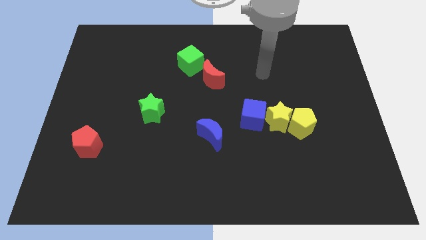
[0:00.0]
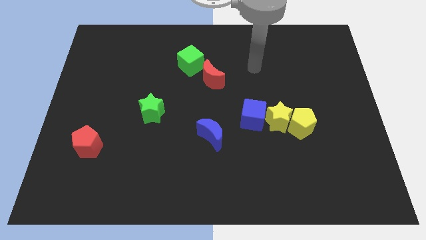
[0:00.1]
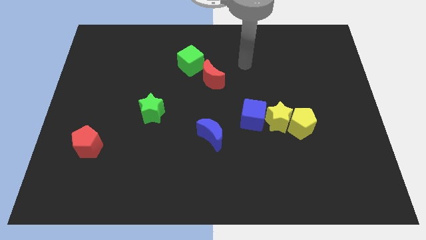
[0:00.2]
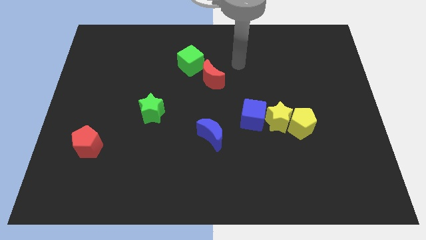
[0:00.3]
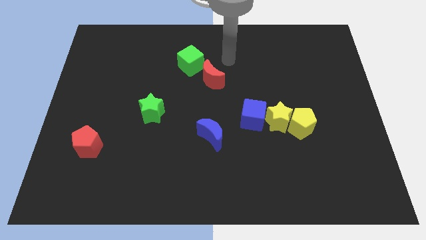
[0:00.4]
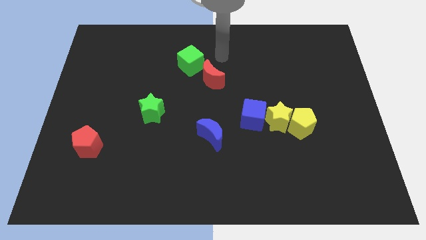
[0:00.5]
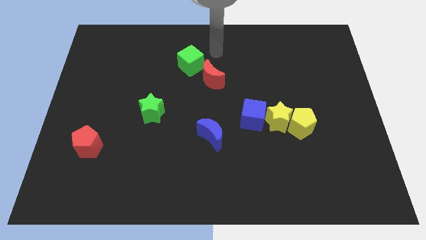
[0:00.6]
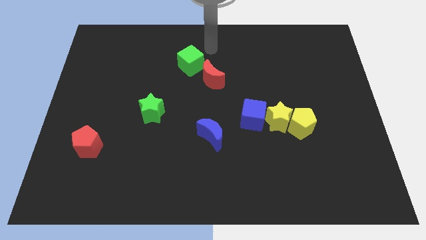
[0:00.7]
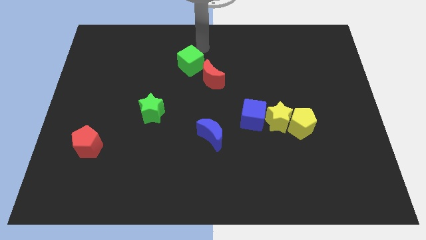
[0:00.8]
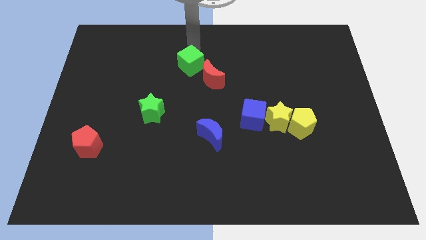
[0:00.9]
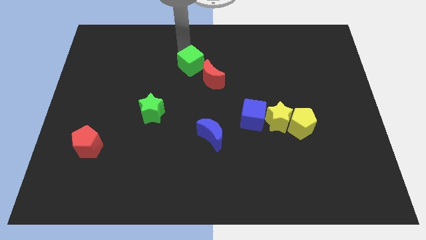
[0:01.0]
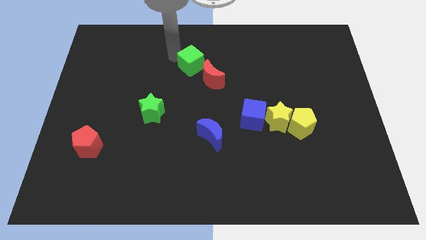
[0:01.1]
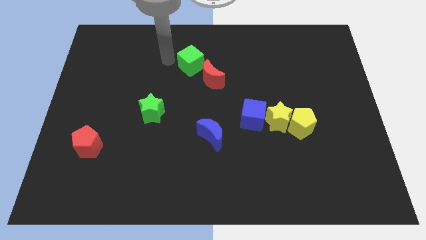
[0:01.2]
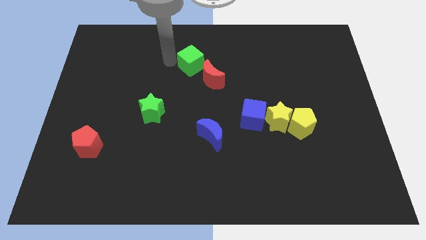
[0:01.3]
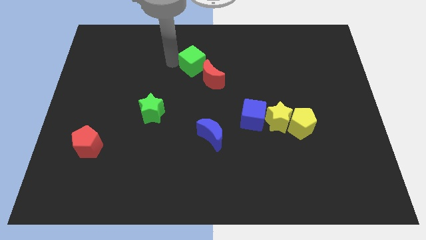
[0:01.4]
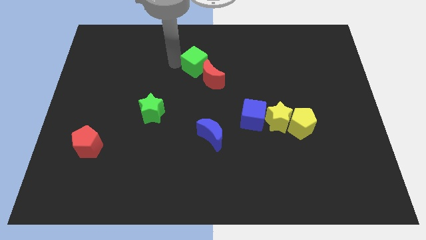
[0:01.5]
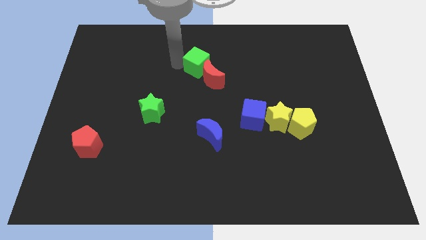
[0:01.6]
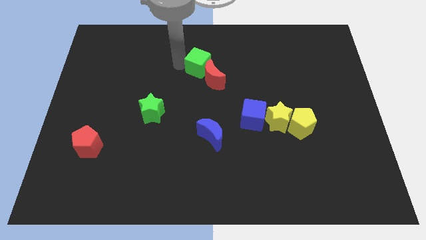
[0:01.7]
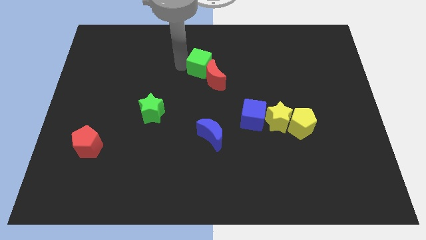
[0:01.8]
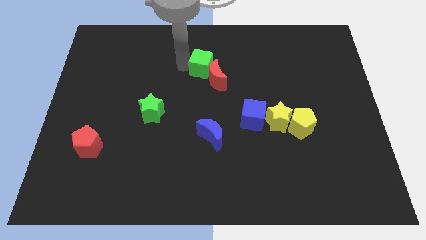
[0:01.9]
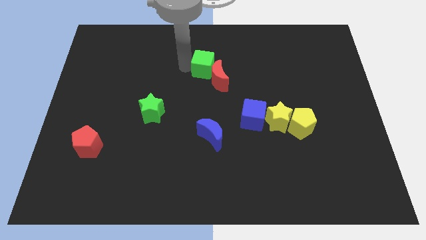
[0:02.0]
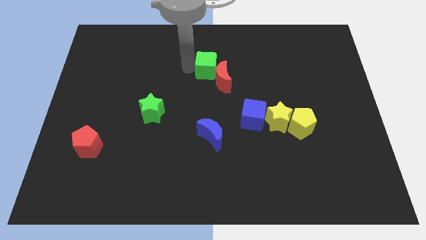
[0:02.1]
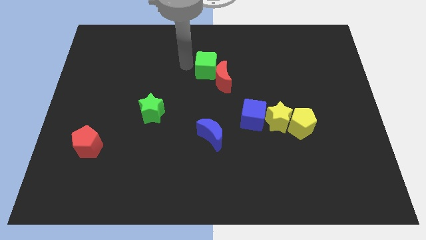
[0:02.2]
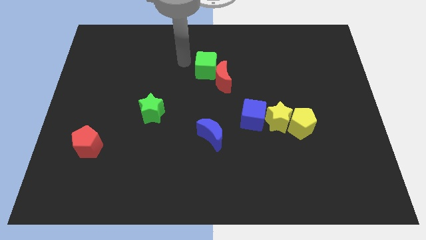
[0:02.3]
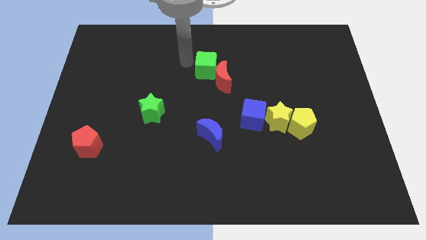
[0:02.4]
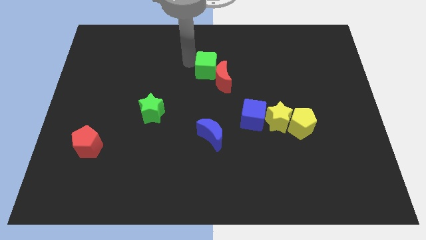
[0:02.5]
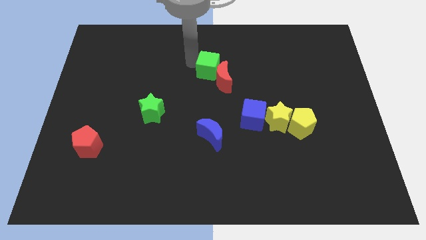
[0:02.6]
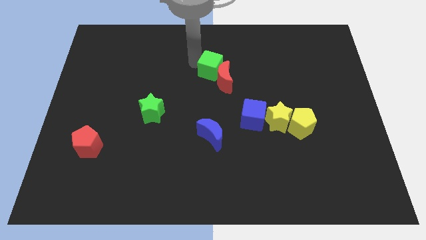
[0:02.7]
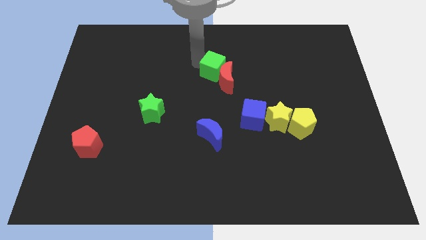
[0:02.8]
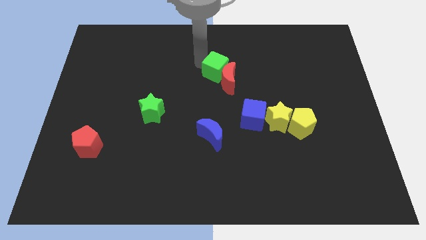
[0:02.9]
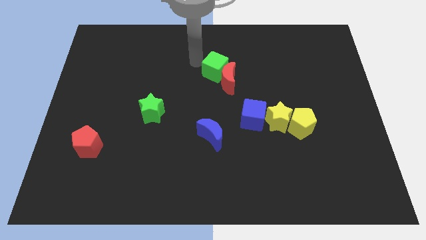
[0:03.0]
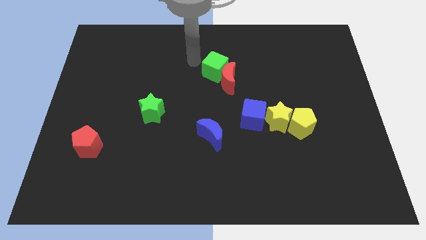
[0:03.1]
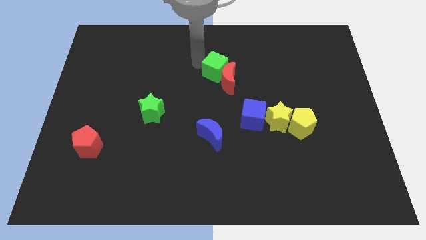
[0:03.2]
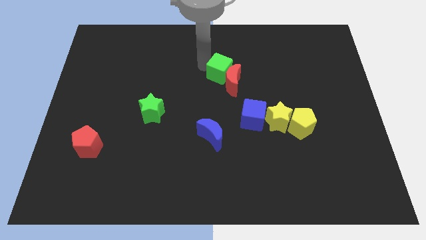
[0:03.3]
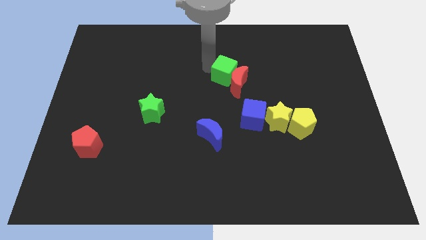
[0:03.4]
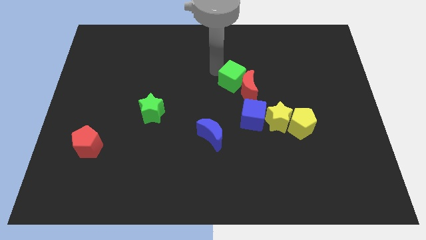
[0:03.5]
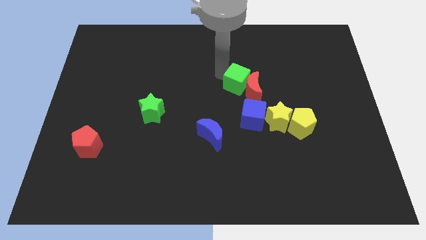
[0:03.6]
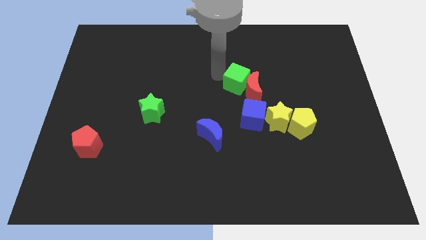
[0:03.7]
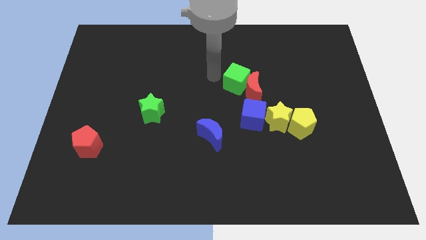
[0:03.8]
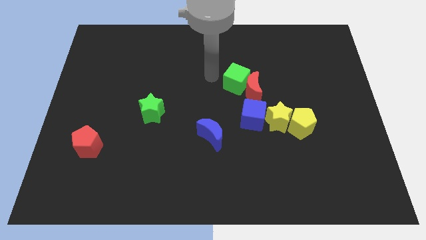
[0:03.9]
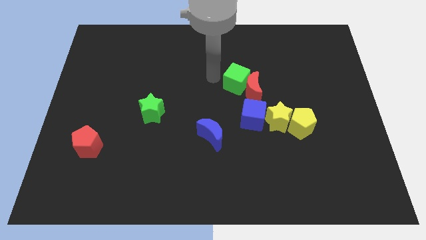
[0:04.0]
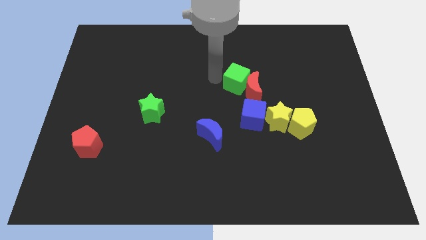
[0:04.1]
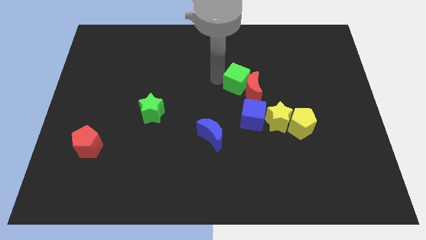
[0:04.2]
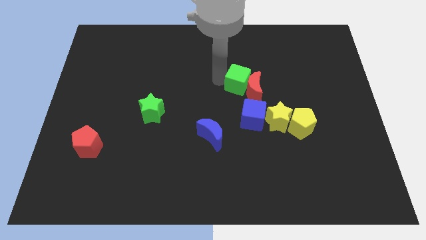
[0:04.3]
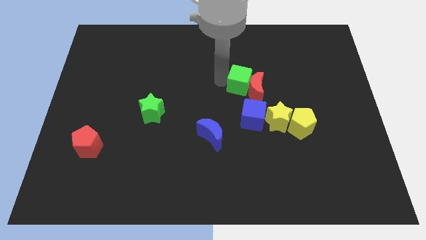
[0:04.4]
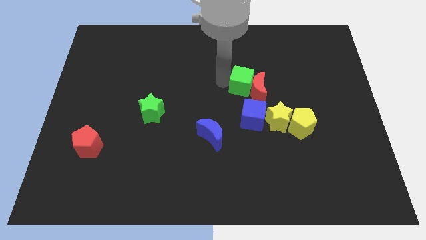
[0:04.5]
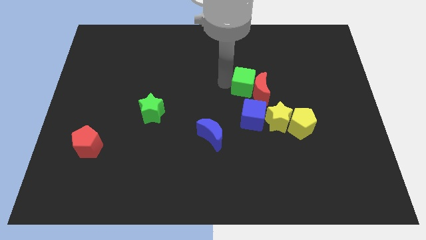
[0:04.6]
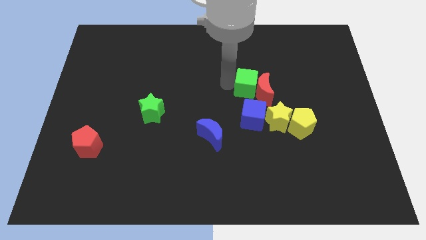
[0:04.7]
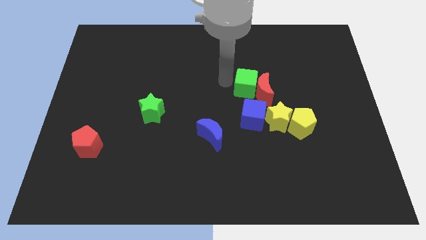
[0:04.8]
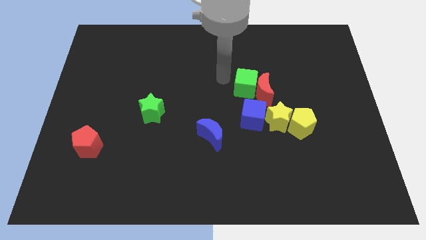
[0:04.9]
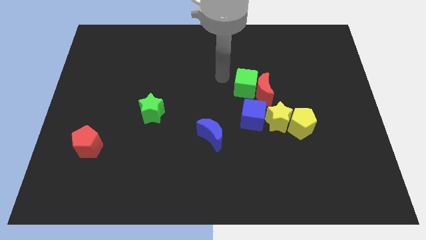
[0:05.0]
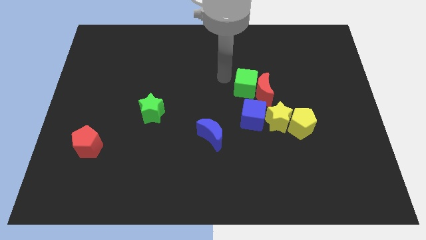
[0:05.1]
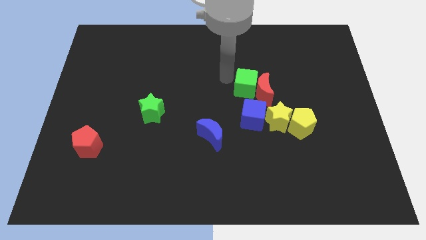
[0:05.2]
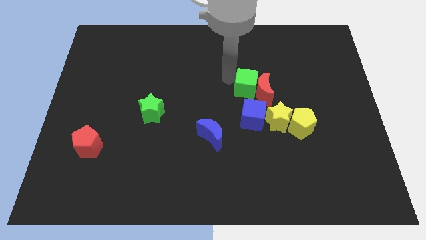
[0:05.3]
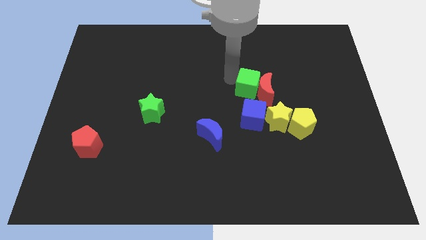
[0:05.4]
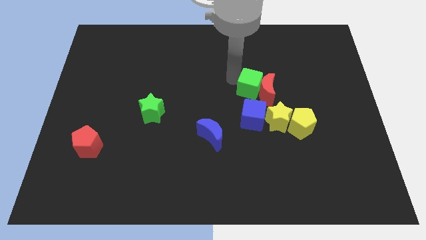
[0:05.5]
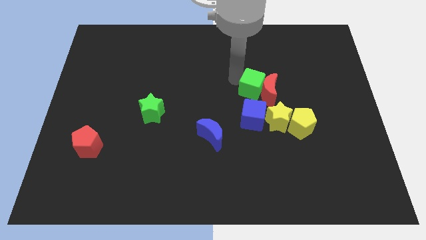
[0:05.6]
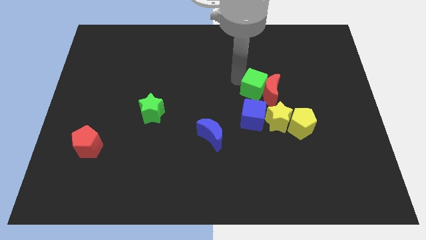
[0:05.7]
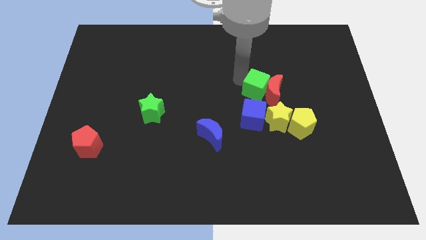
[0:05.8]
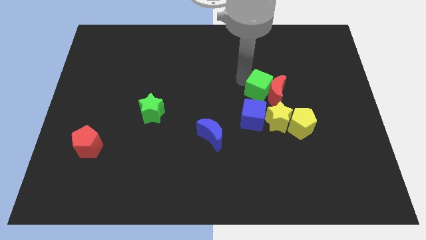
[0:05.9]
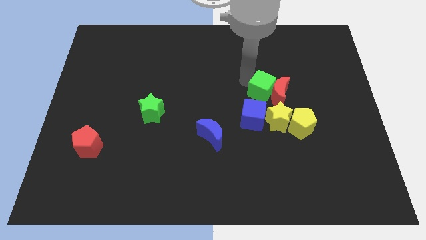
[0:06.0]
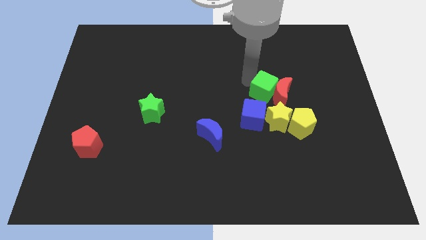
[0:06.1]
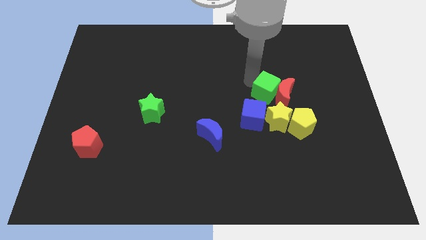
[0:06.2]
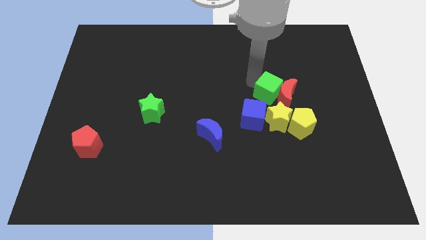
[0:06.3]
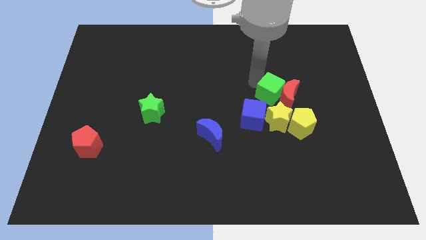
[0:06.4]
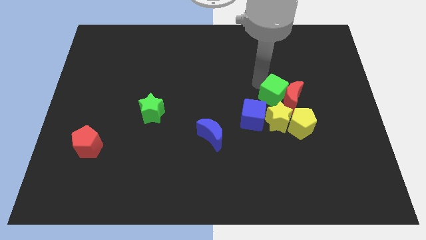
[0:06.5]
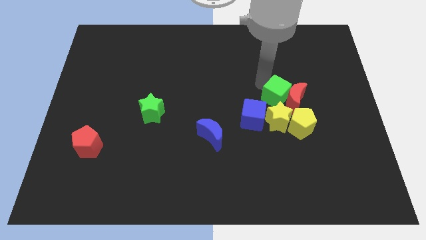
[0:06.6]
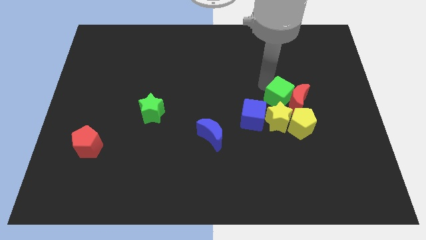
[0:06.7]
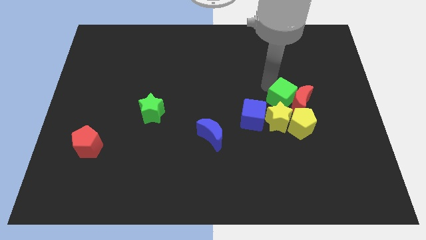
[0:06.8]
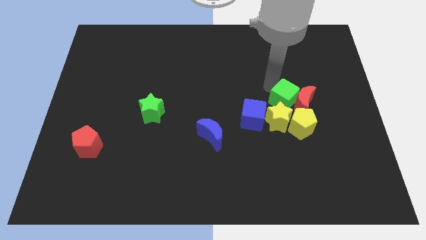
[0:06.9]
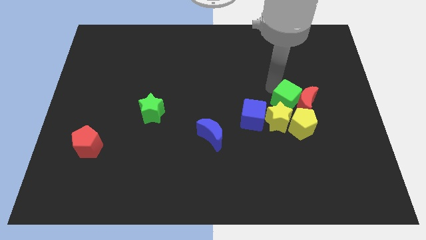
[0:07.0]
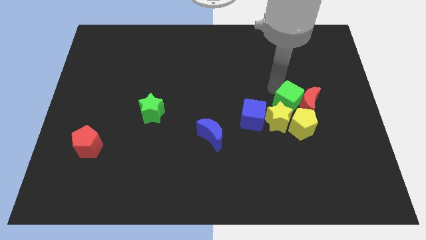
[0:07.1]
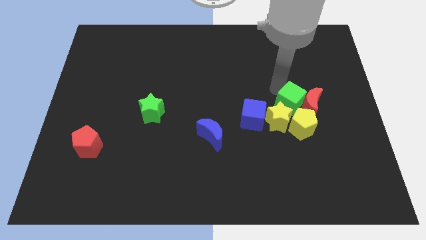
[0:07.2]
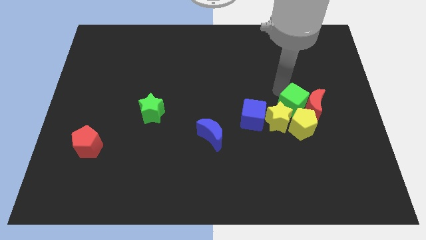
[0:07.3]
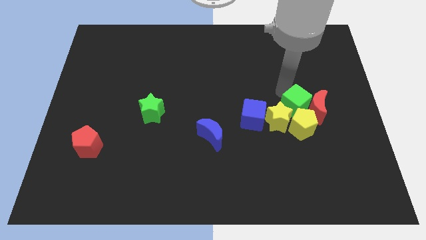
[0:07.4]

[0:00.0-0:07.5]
push the green cube next to the yellow pentagon
